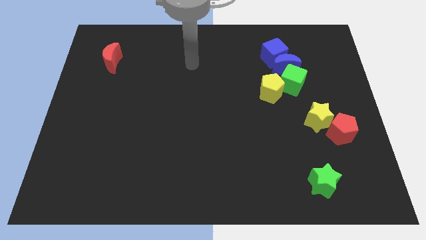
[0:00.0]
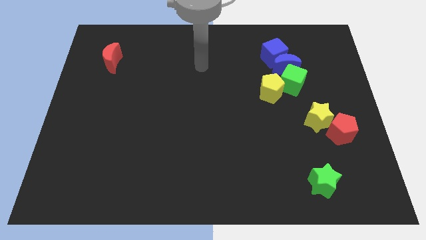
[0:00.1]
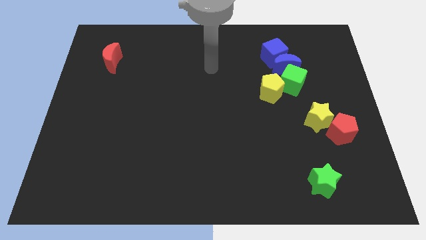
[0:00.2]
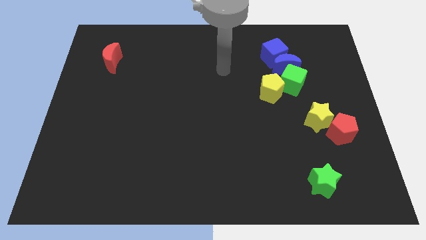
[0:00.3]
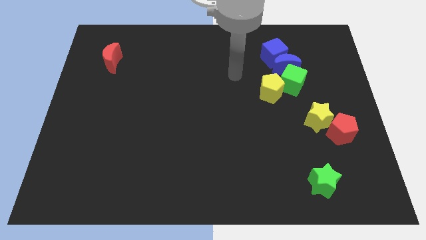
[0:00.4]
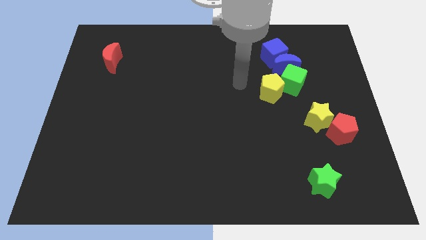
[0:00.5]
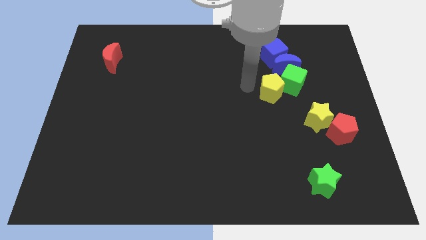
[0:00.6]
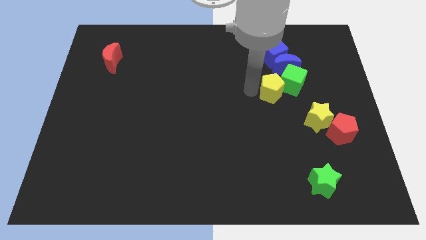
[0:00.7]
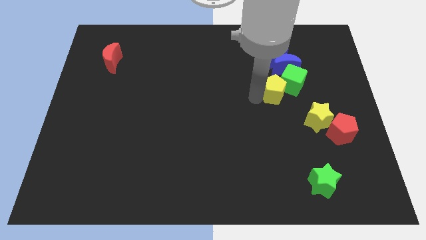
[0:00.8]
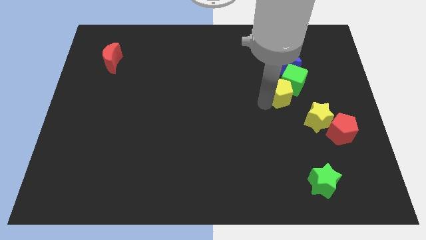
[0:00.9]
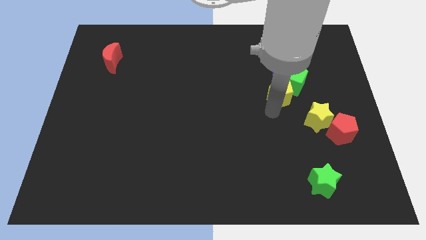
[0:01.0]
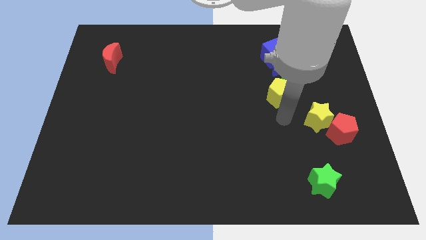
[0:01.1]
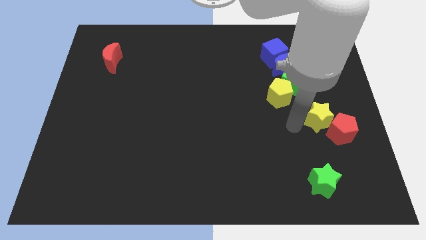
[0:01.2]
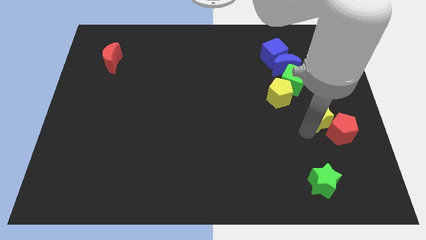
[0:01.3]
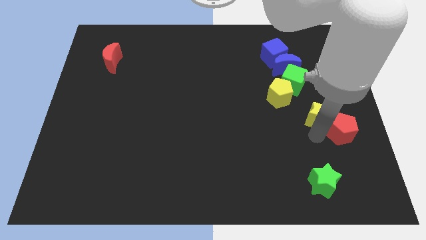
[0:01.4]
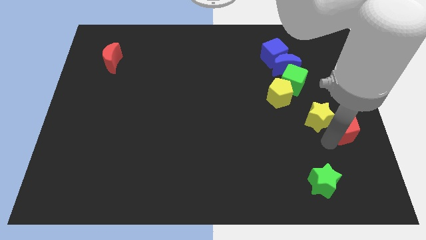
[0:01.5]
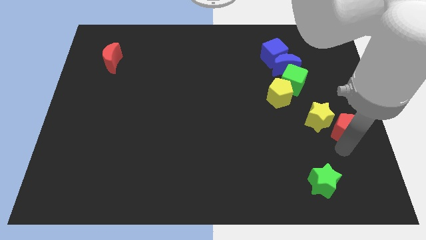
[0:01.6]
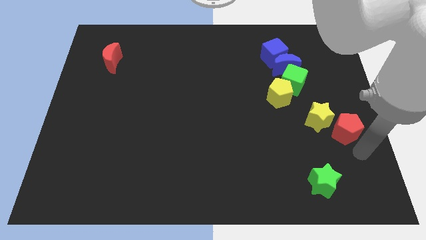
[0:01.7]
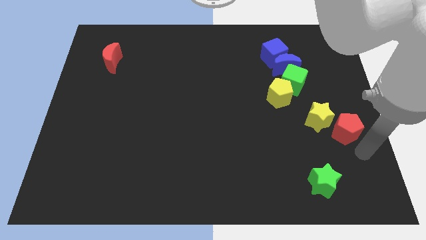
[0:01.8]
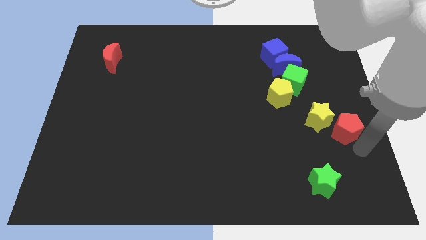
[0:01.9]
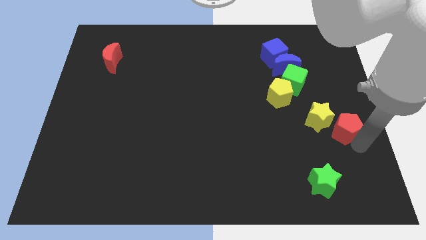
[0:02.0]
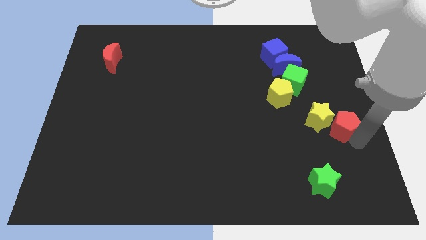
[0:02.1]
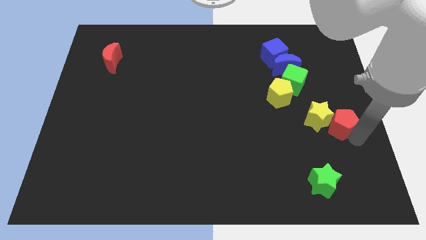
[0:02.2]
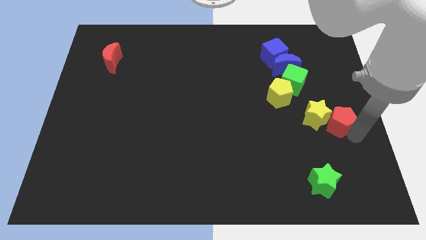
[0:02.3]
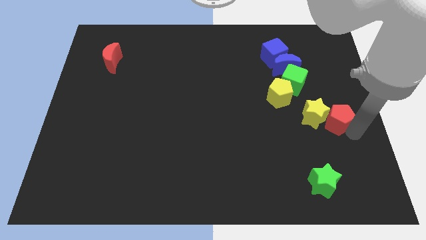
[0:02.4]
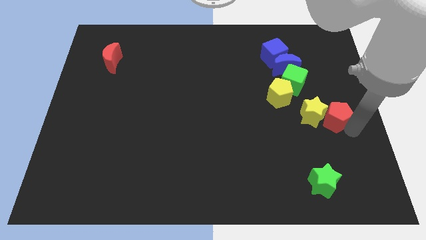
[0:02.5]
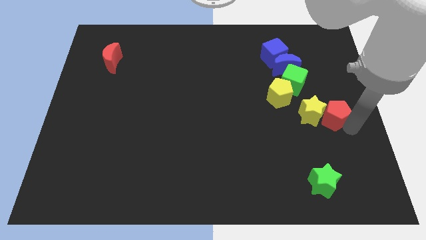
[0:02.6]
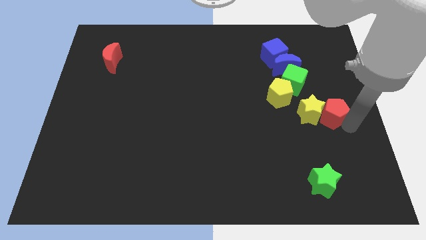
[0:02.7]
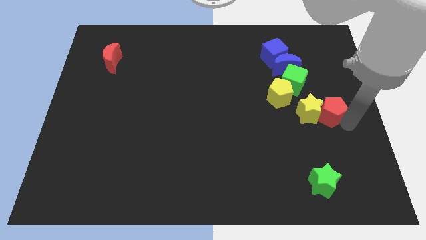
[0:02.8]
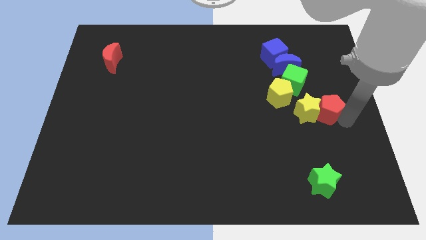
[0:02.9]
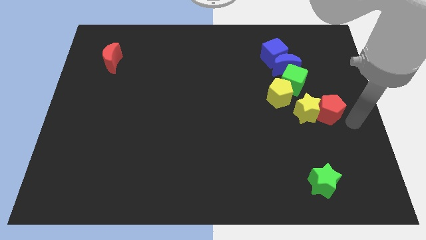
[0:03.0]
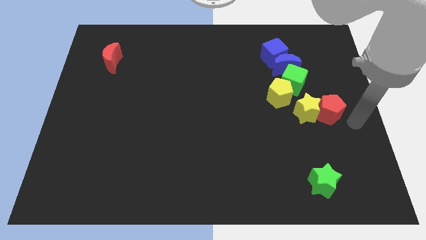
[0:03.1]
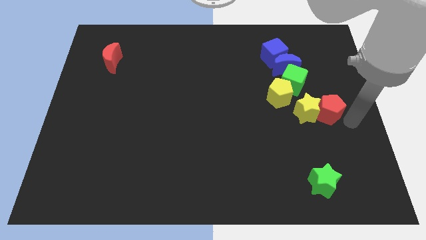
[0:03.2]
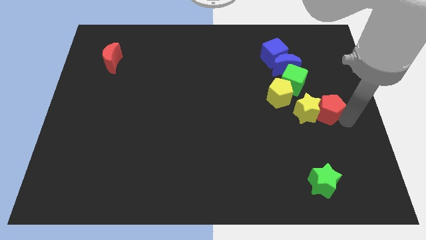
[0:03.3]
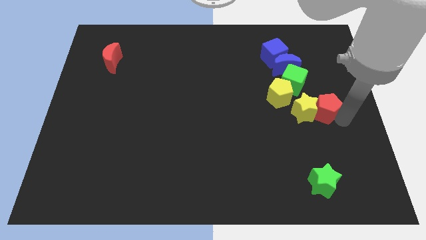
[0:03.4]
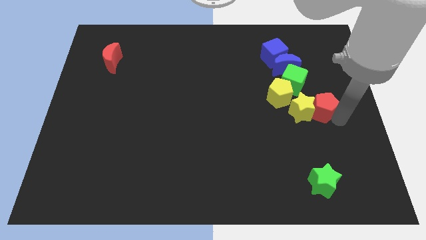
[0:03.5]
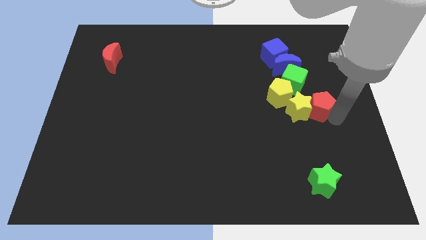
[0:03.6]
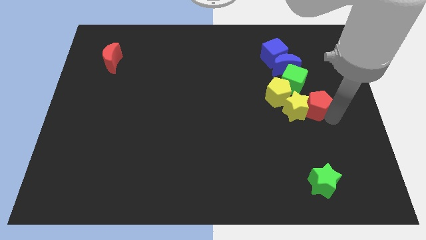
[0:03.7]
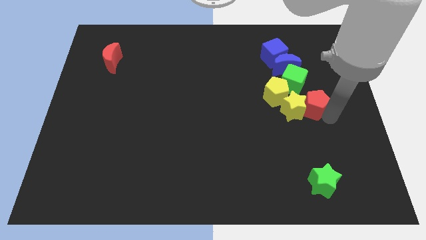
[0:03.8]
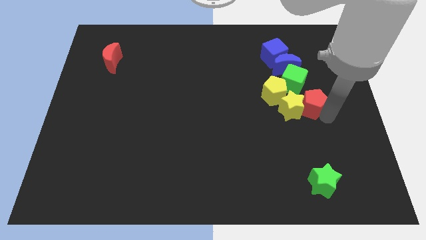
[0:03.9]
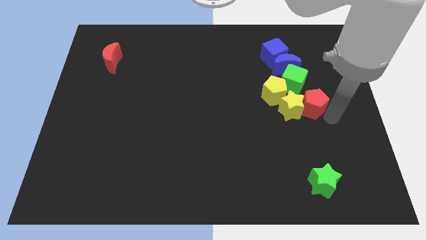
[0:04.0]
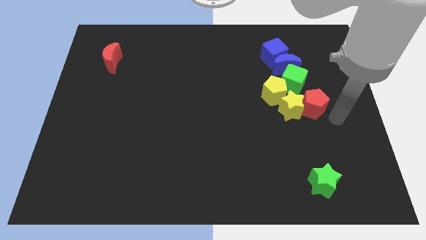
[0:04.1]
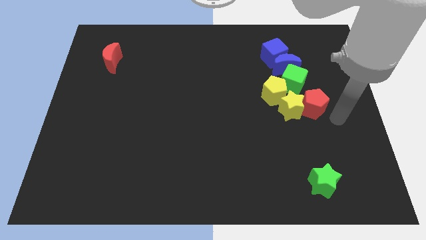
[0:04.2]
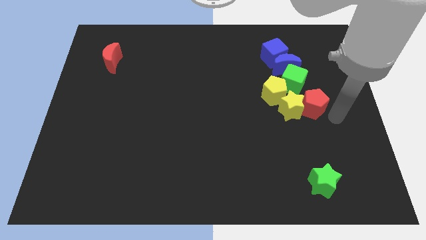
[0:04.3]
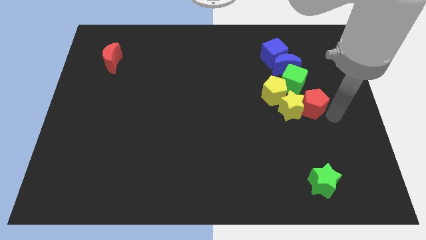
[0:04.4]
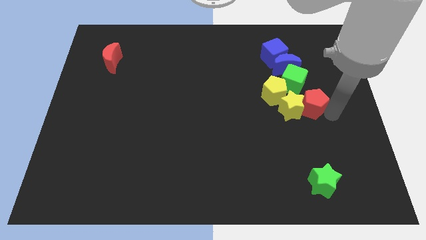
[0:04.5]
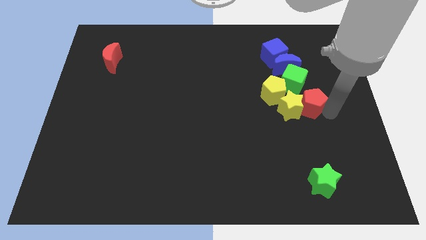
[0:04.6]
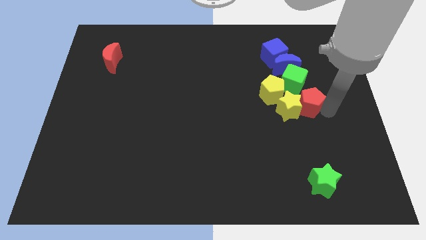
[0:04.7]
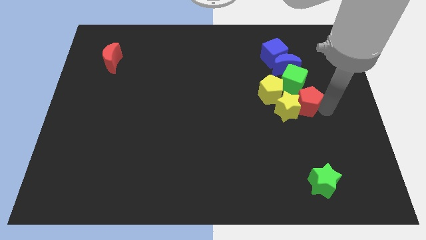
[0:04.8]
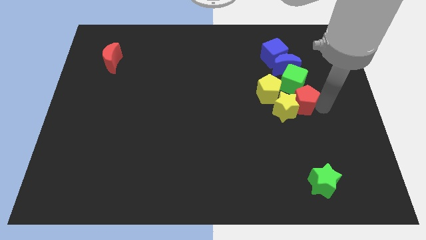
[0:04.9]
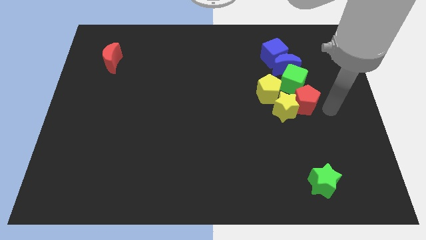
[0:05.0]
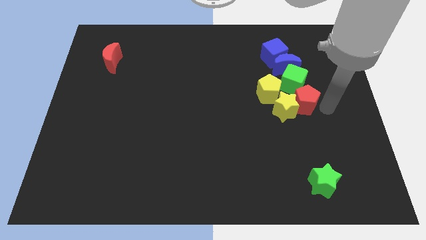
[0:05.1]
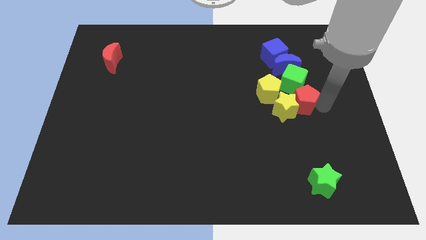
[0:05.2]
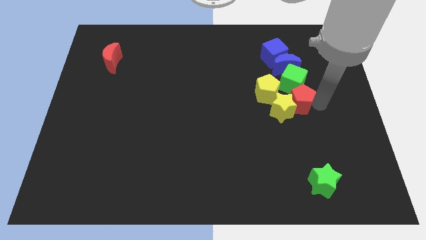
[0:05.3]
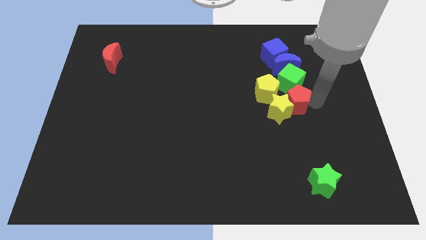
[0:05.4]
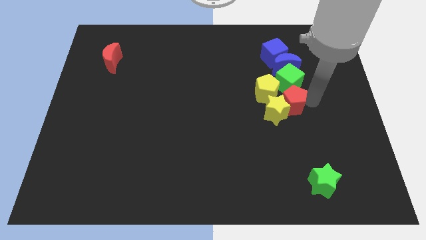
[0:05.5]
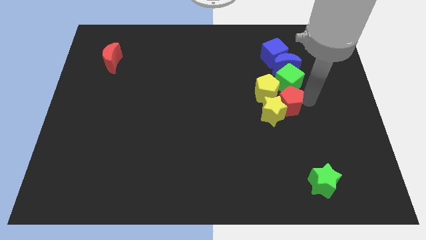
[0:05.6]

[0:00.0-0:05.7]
put the red pentagon towards the yellow pentagon

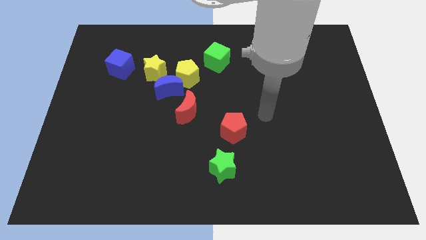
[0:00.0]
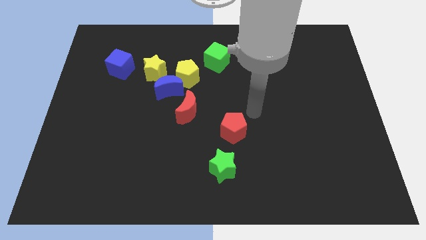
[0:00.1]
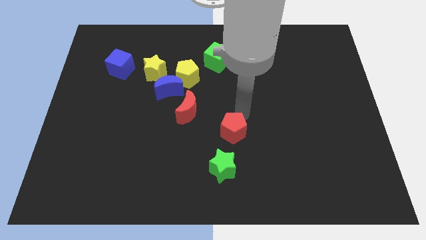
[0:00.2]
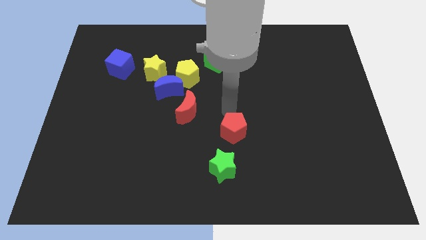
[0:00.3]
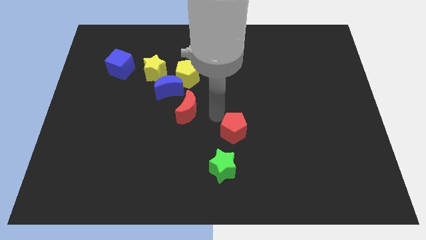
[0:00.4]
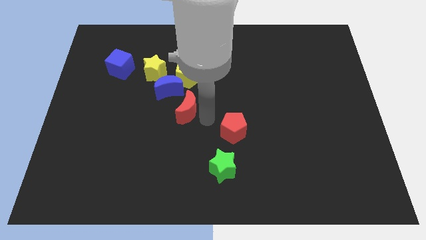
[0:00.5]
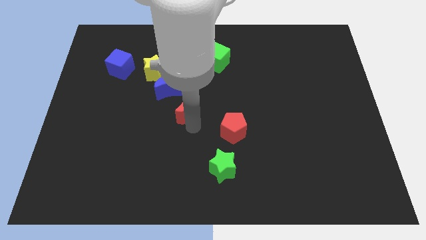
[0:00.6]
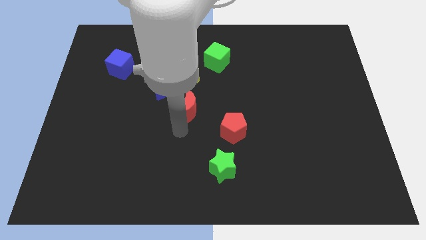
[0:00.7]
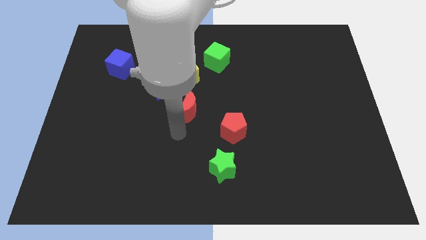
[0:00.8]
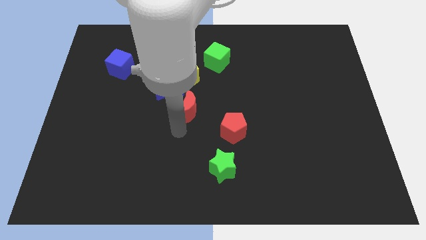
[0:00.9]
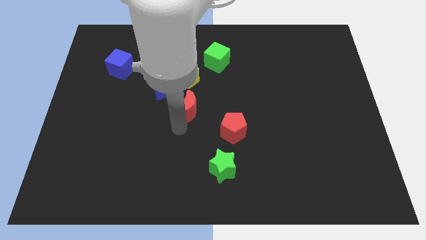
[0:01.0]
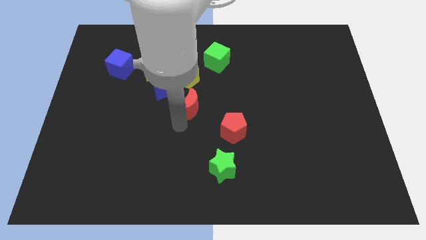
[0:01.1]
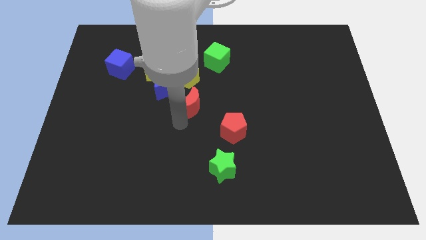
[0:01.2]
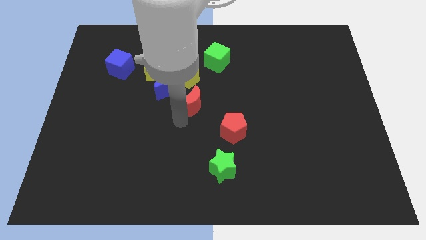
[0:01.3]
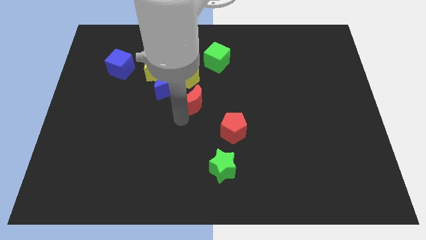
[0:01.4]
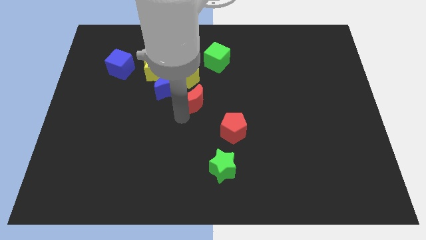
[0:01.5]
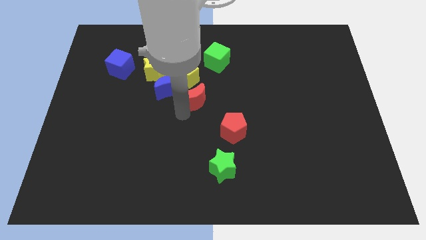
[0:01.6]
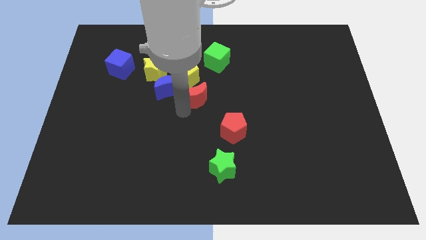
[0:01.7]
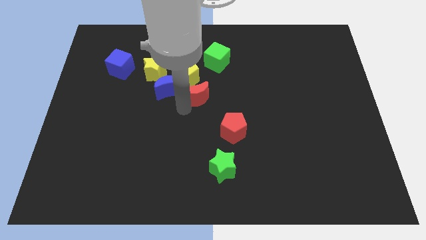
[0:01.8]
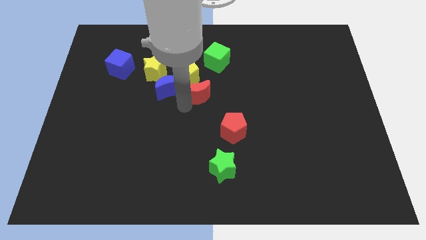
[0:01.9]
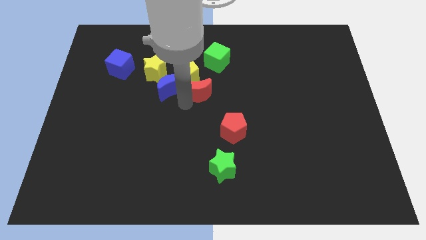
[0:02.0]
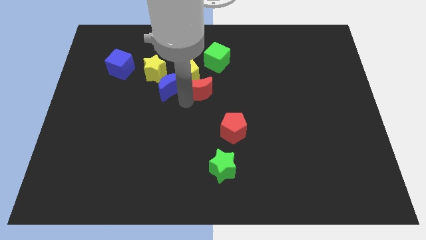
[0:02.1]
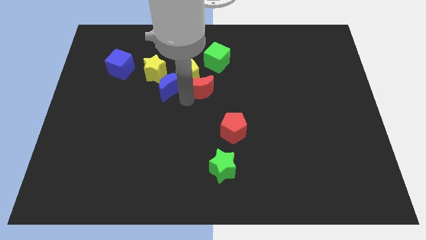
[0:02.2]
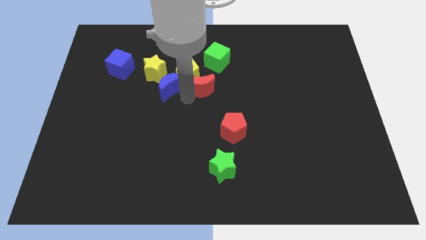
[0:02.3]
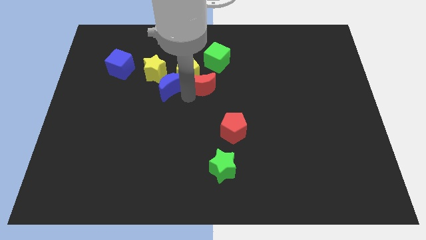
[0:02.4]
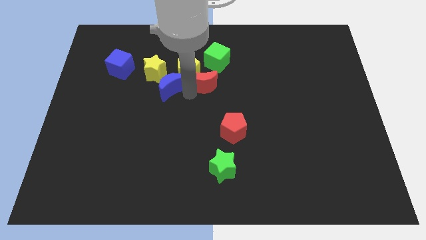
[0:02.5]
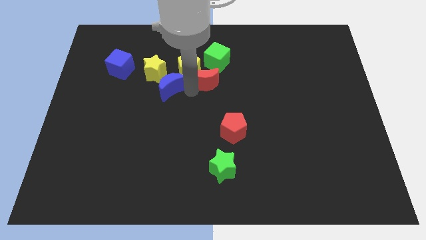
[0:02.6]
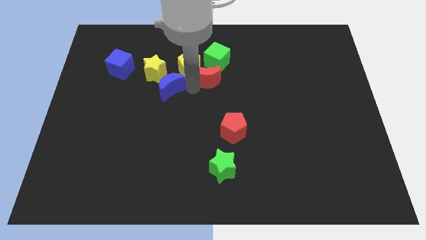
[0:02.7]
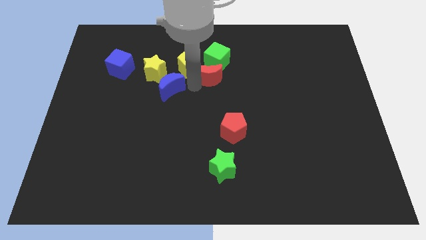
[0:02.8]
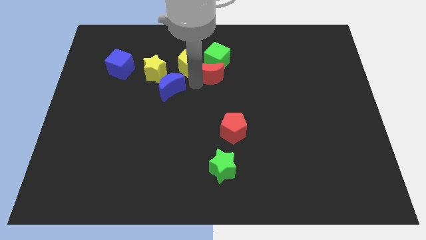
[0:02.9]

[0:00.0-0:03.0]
move the red moon to the green cube
